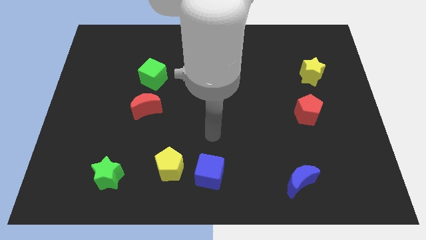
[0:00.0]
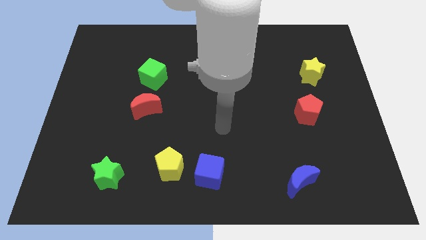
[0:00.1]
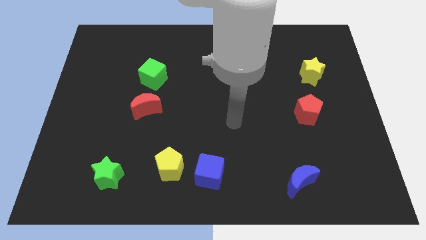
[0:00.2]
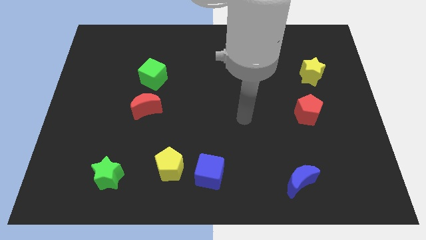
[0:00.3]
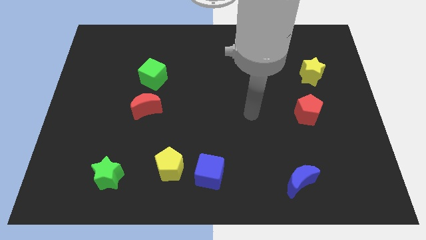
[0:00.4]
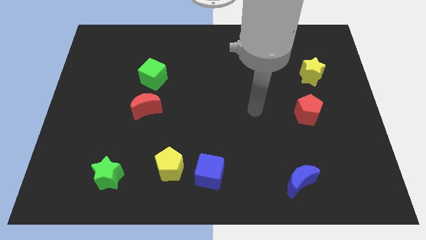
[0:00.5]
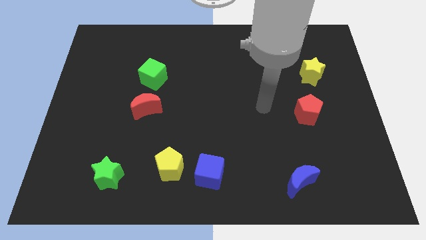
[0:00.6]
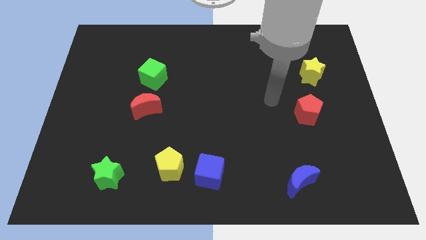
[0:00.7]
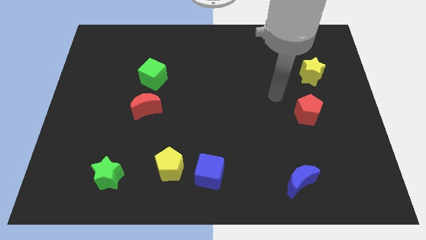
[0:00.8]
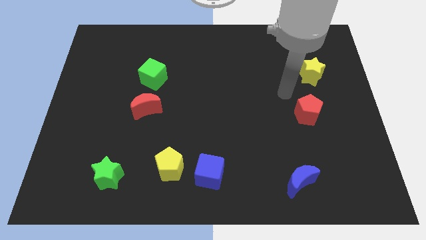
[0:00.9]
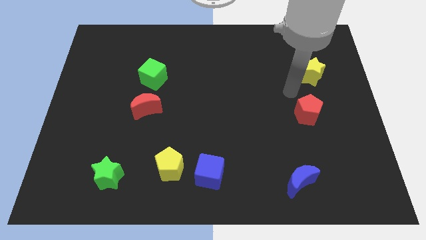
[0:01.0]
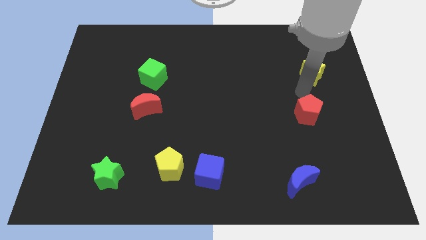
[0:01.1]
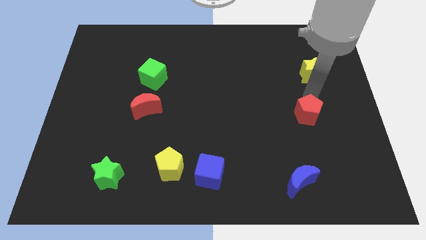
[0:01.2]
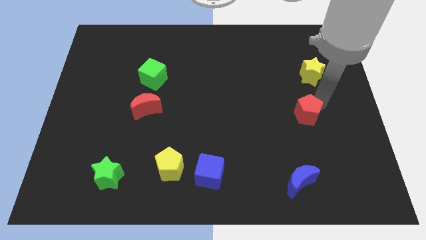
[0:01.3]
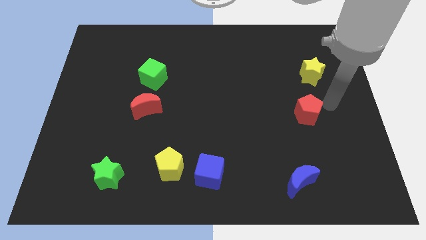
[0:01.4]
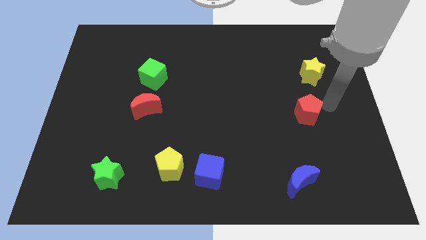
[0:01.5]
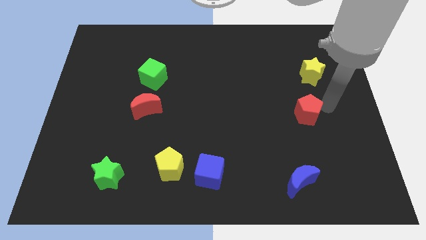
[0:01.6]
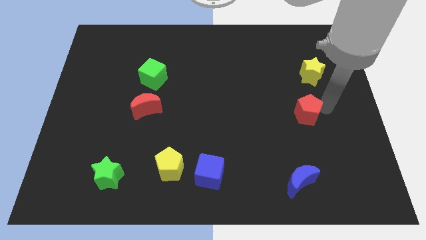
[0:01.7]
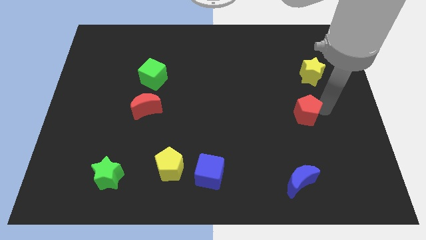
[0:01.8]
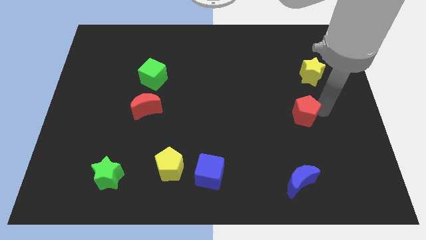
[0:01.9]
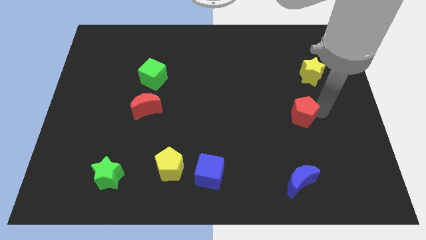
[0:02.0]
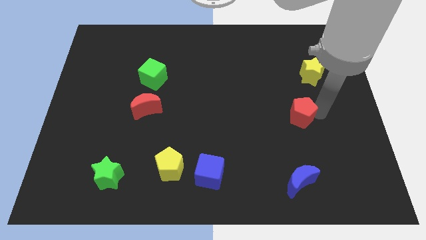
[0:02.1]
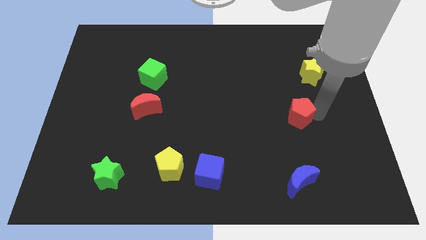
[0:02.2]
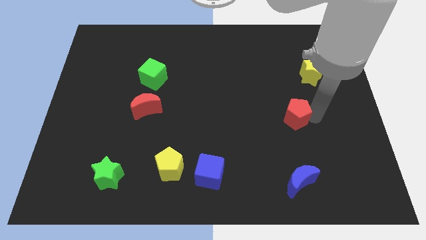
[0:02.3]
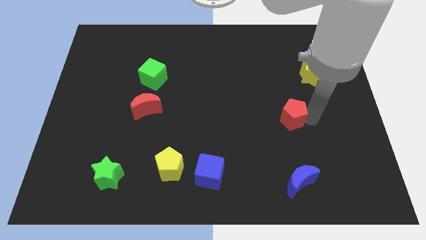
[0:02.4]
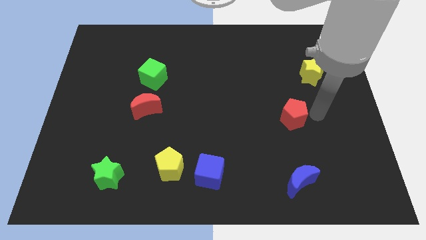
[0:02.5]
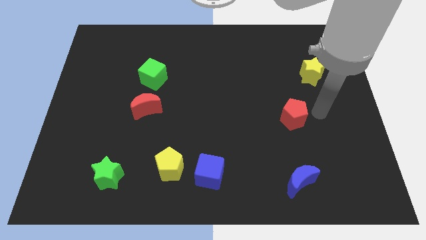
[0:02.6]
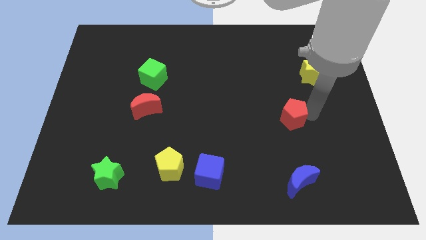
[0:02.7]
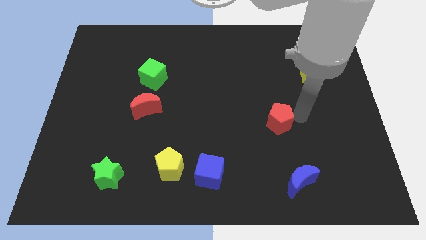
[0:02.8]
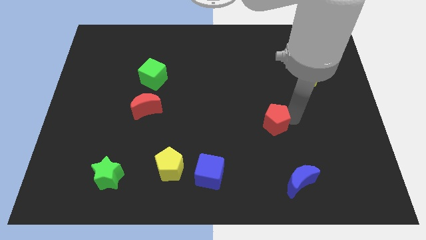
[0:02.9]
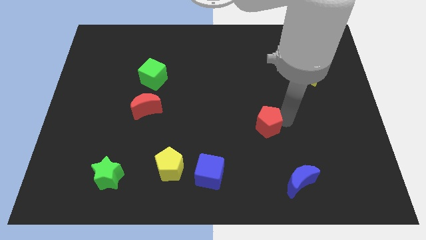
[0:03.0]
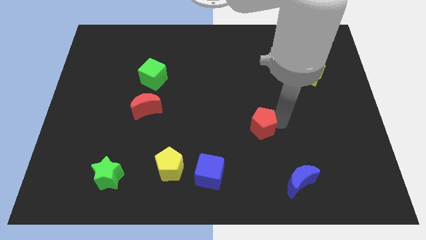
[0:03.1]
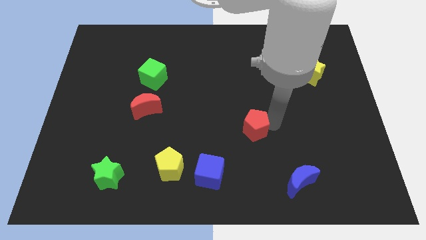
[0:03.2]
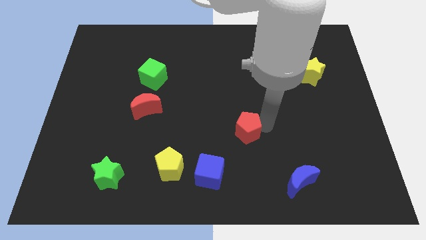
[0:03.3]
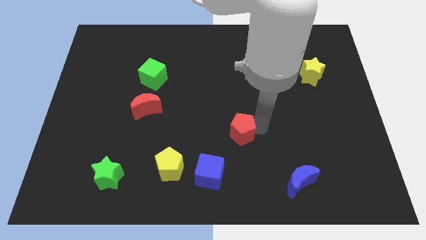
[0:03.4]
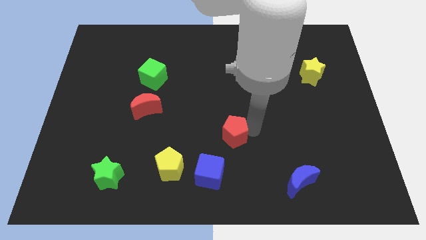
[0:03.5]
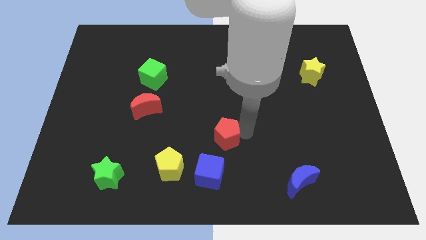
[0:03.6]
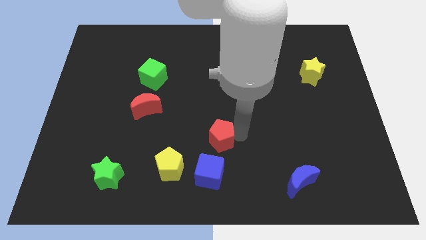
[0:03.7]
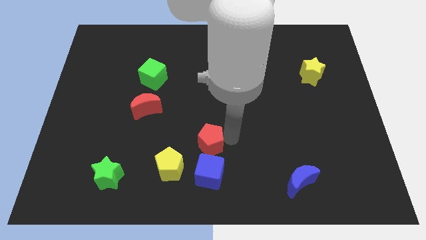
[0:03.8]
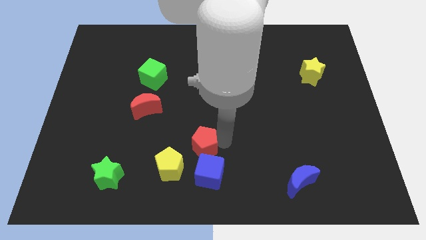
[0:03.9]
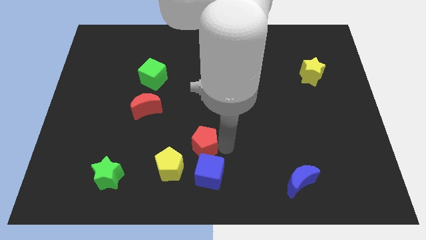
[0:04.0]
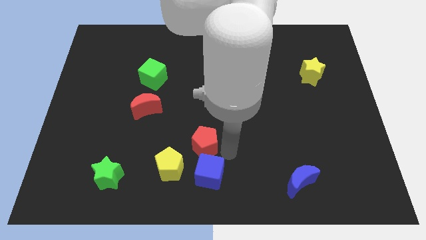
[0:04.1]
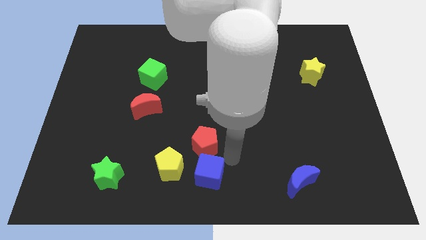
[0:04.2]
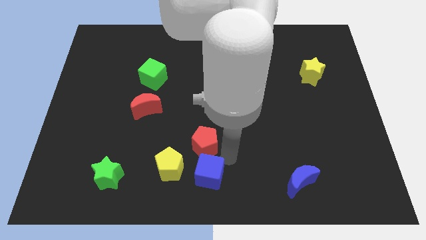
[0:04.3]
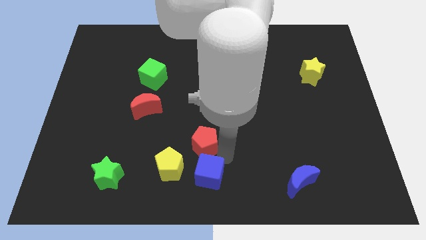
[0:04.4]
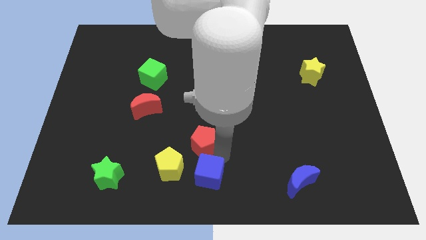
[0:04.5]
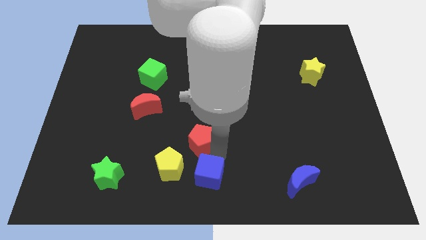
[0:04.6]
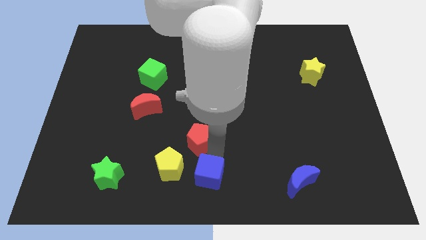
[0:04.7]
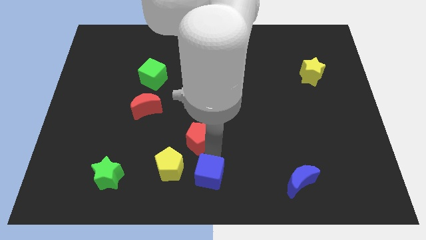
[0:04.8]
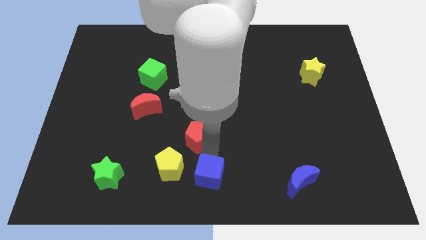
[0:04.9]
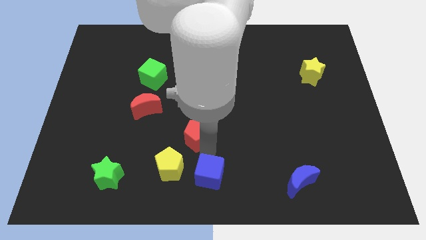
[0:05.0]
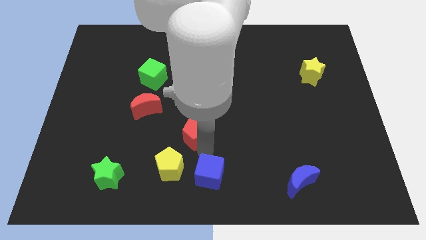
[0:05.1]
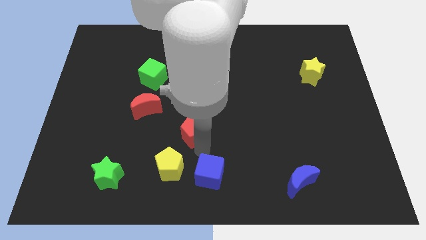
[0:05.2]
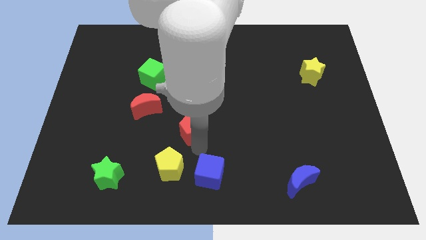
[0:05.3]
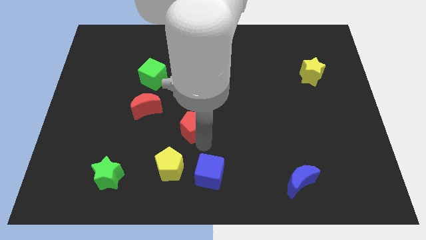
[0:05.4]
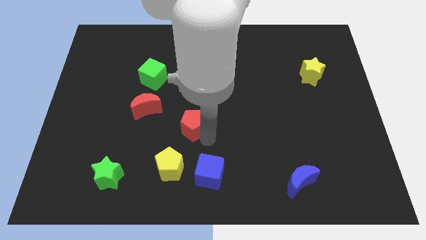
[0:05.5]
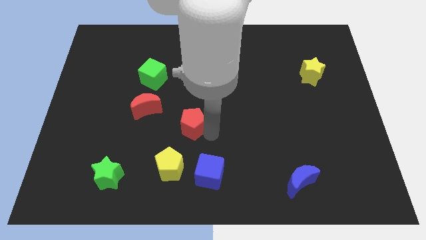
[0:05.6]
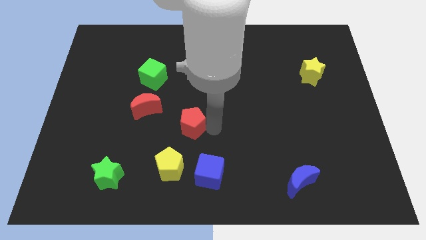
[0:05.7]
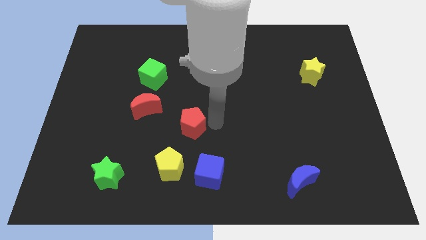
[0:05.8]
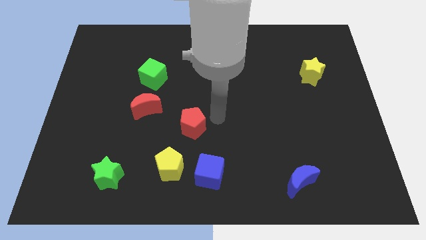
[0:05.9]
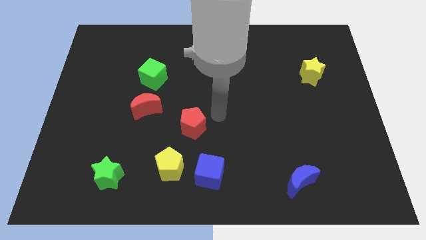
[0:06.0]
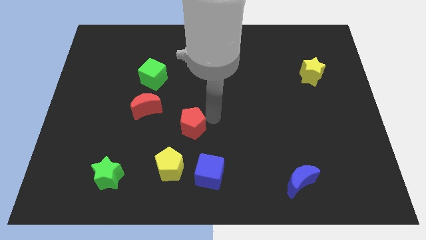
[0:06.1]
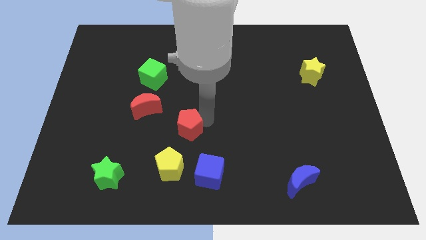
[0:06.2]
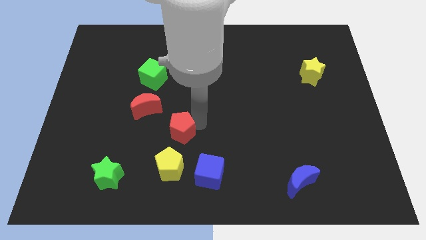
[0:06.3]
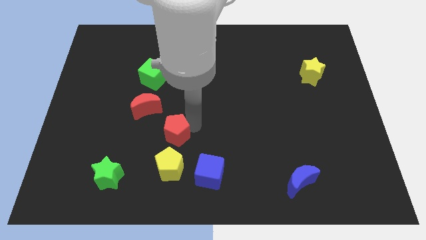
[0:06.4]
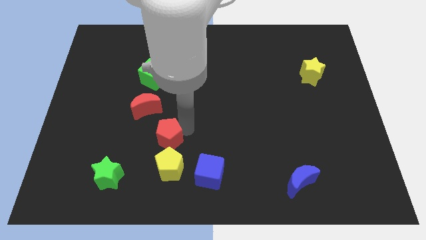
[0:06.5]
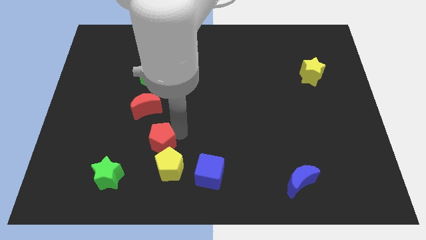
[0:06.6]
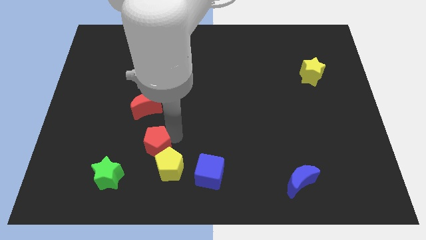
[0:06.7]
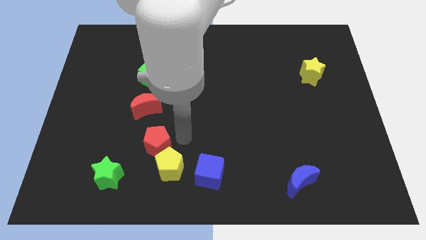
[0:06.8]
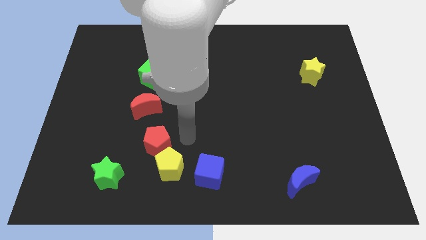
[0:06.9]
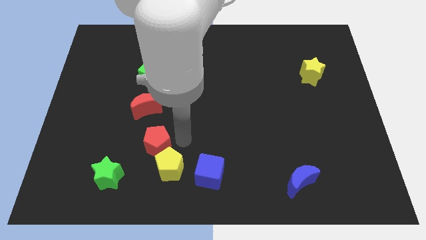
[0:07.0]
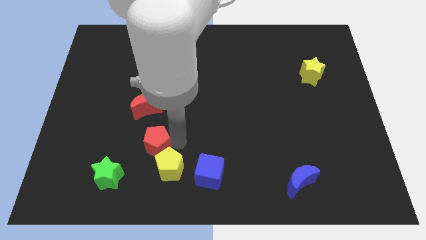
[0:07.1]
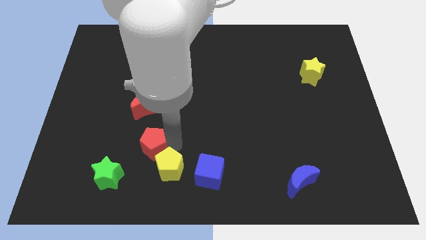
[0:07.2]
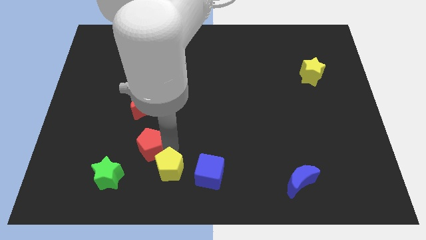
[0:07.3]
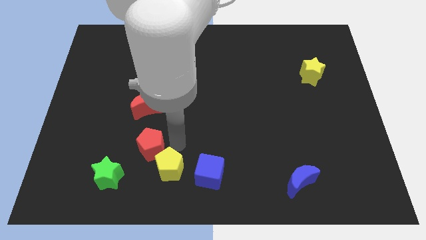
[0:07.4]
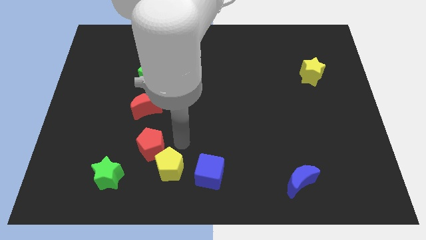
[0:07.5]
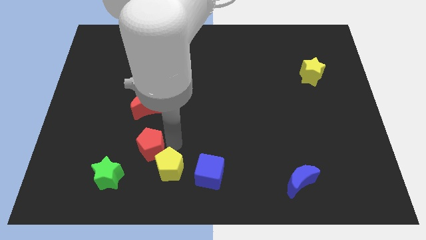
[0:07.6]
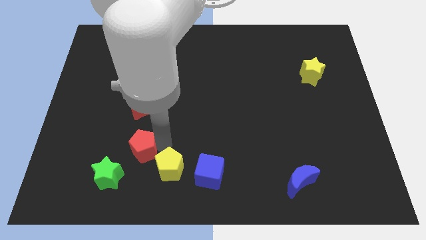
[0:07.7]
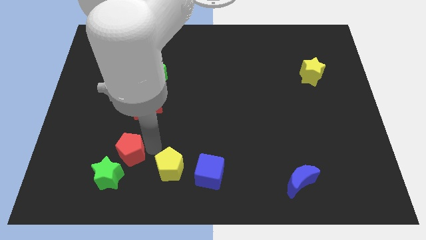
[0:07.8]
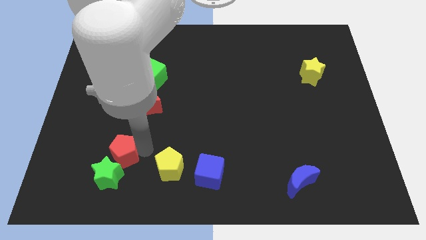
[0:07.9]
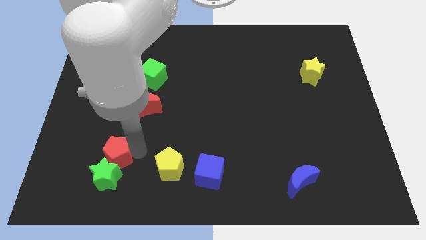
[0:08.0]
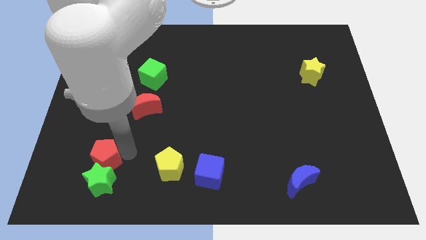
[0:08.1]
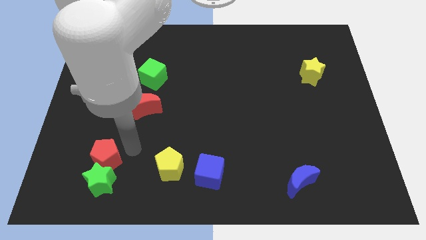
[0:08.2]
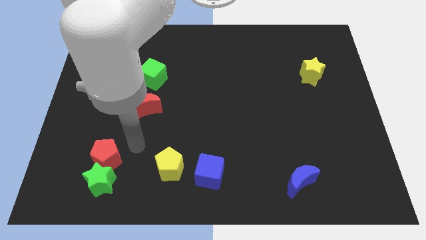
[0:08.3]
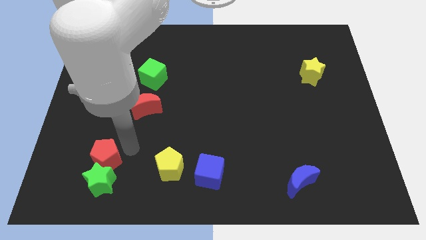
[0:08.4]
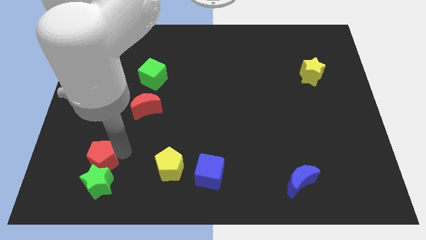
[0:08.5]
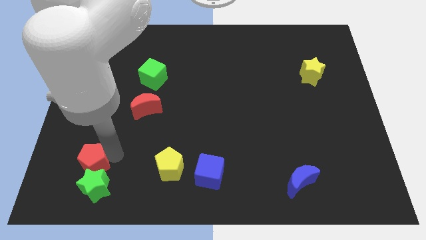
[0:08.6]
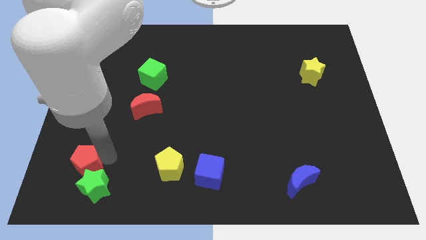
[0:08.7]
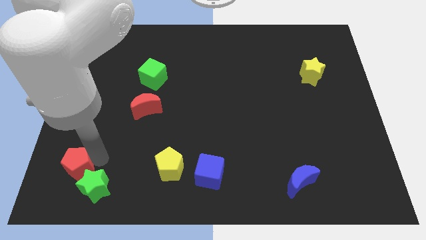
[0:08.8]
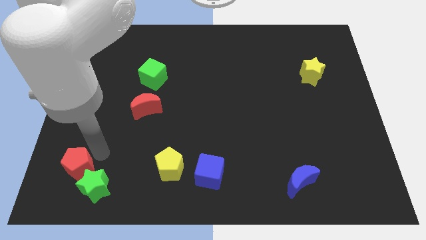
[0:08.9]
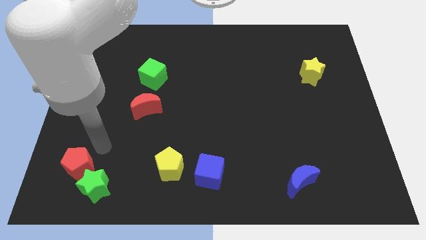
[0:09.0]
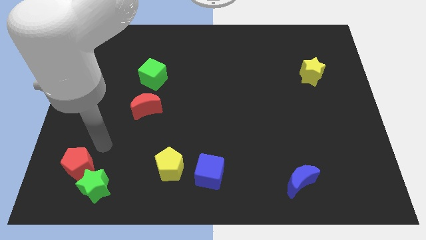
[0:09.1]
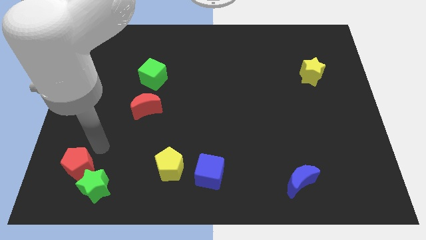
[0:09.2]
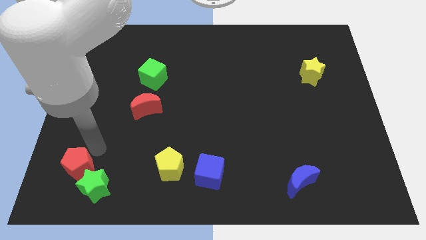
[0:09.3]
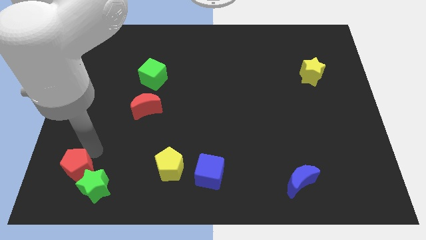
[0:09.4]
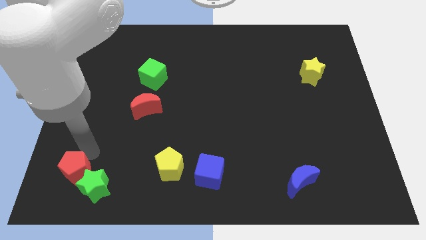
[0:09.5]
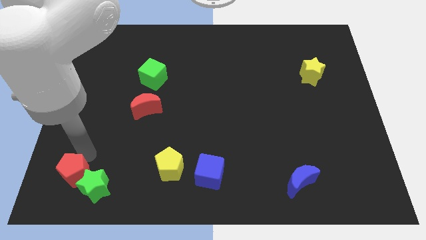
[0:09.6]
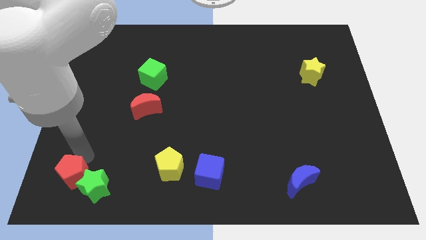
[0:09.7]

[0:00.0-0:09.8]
push the red pentagon to the bottom left of the board
